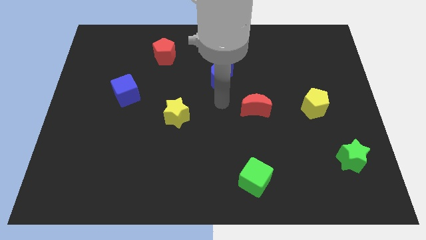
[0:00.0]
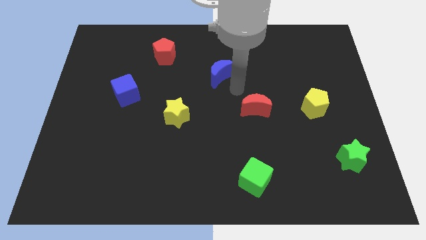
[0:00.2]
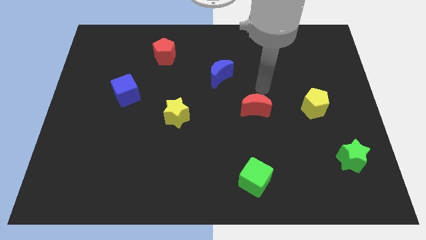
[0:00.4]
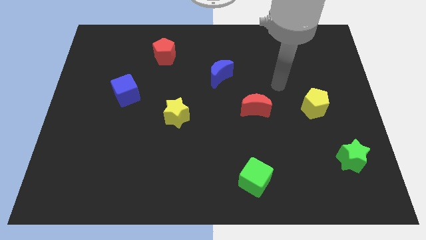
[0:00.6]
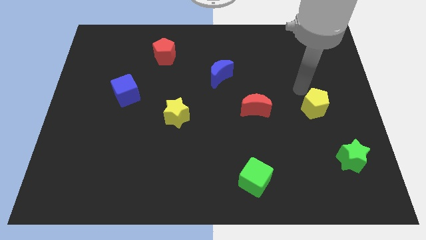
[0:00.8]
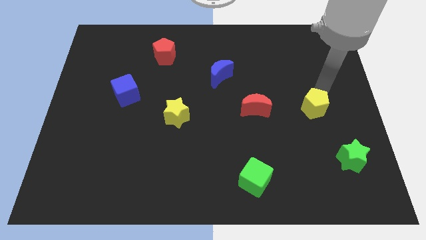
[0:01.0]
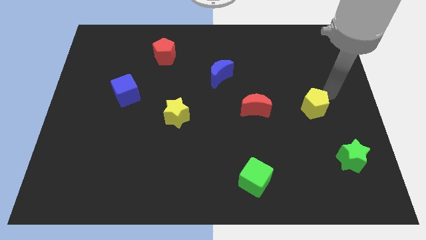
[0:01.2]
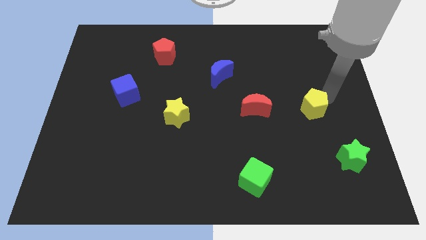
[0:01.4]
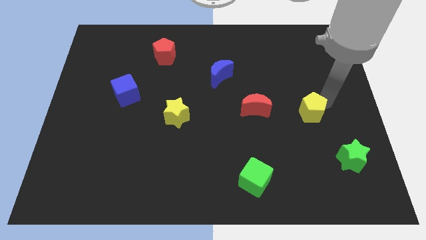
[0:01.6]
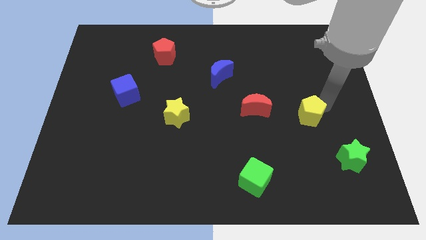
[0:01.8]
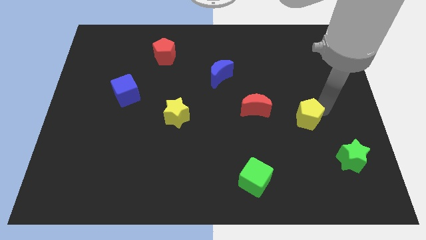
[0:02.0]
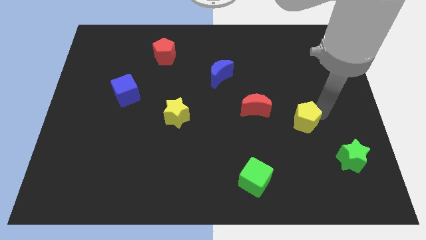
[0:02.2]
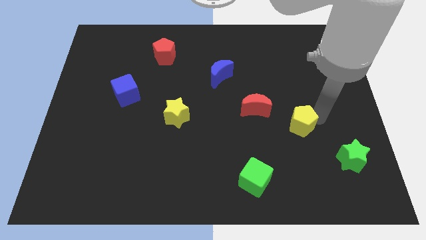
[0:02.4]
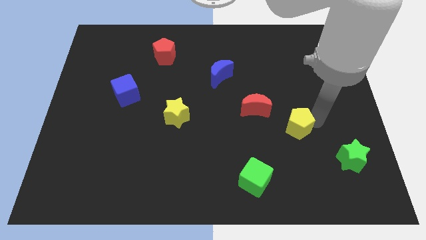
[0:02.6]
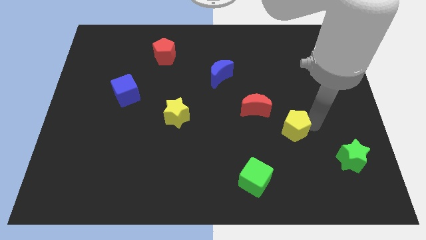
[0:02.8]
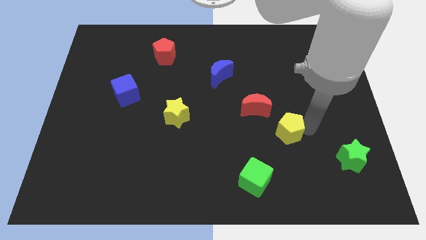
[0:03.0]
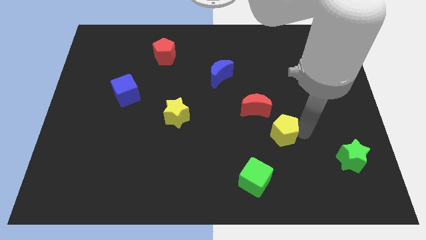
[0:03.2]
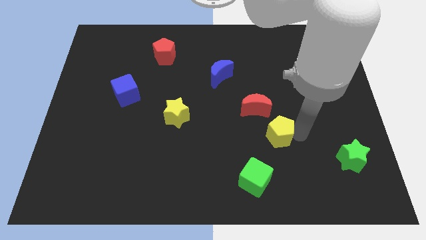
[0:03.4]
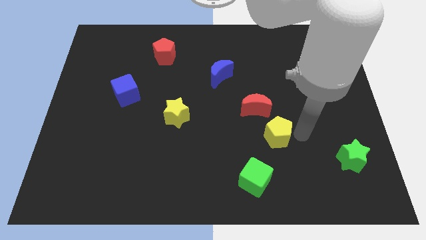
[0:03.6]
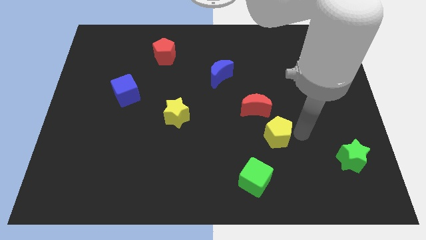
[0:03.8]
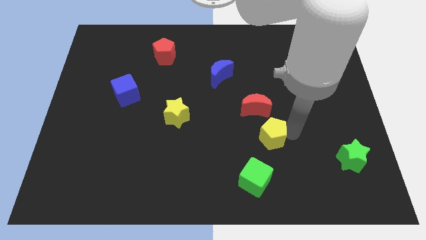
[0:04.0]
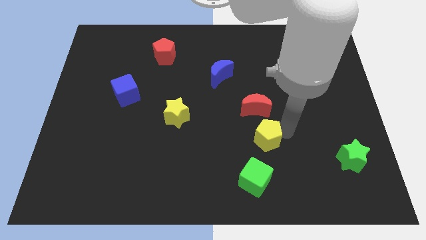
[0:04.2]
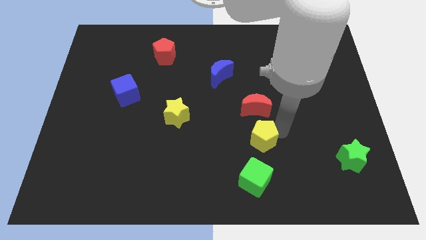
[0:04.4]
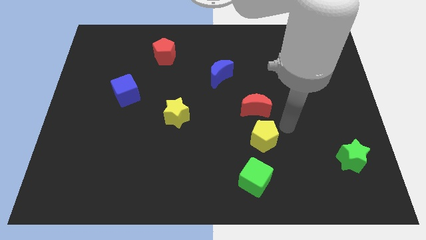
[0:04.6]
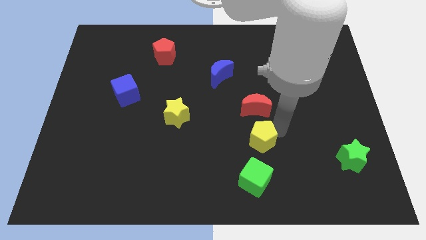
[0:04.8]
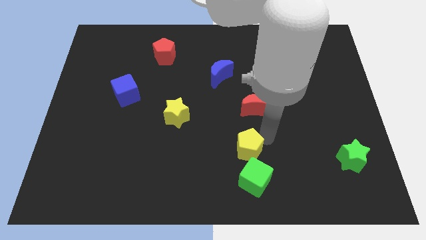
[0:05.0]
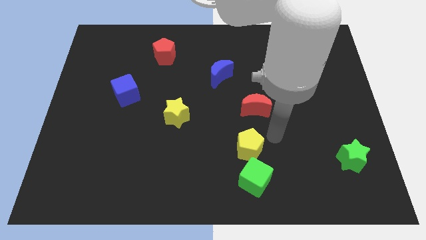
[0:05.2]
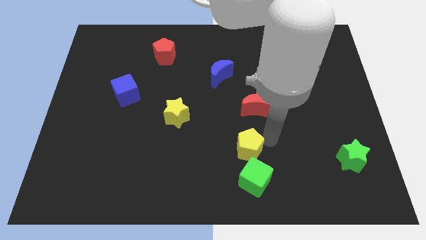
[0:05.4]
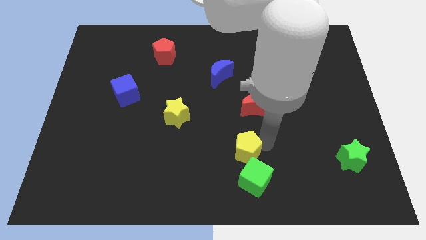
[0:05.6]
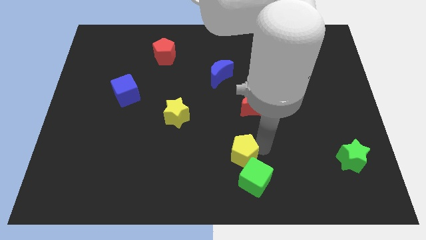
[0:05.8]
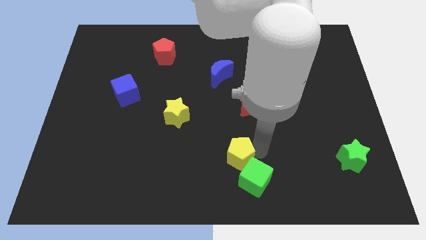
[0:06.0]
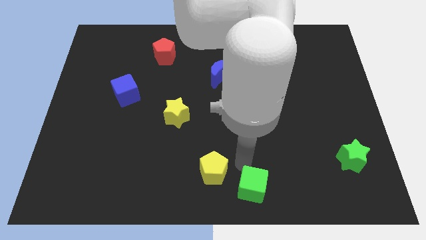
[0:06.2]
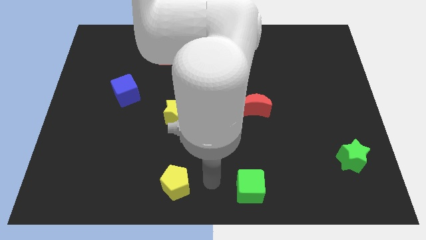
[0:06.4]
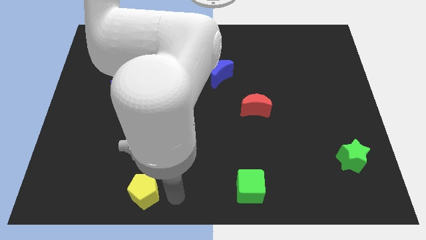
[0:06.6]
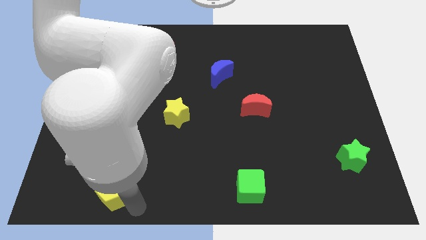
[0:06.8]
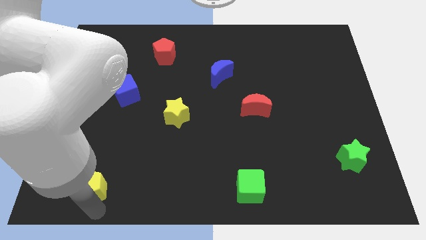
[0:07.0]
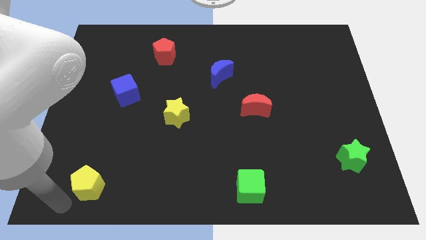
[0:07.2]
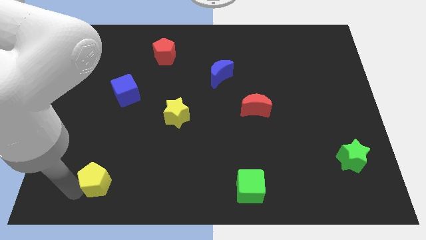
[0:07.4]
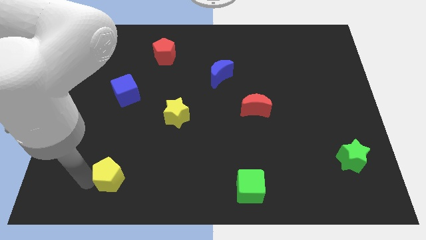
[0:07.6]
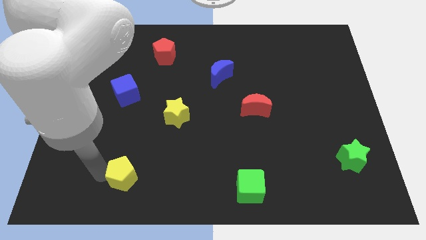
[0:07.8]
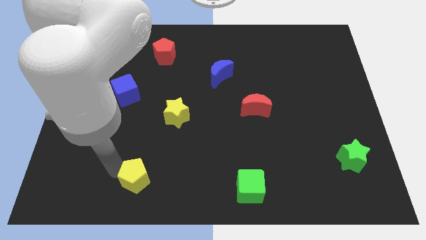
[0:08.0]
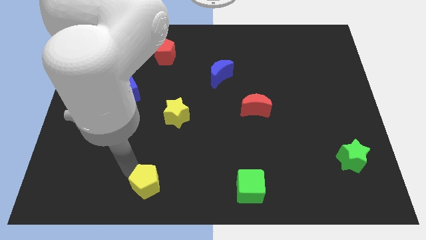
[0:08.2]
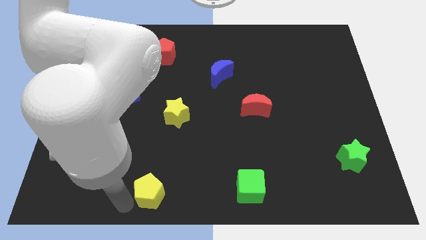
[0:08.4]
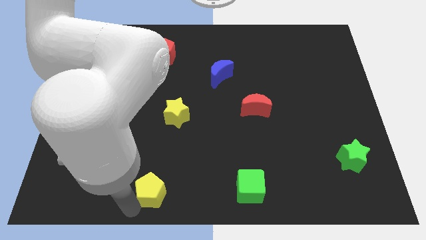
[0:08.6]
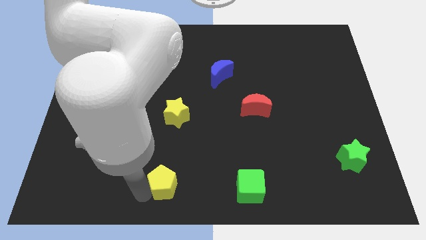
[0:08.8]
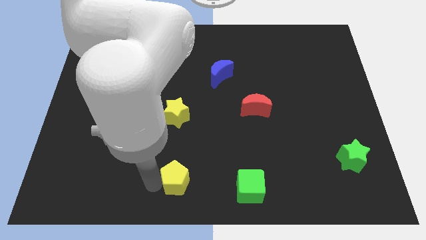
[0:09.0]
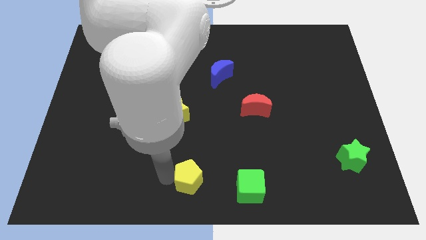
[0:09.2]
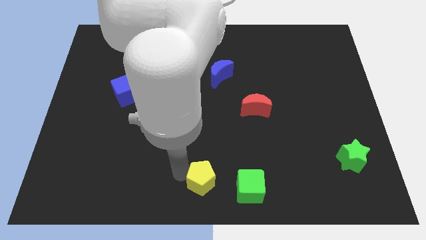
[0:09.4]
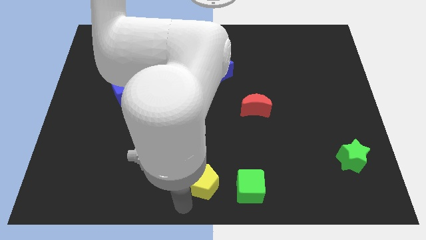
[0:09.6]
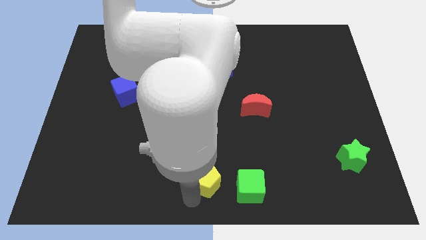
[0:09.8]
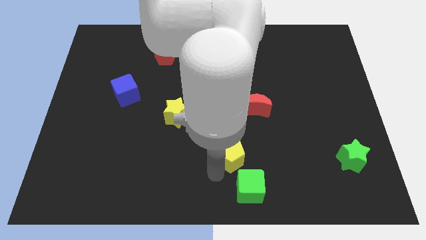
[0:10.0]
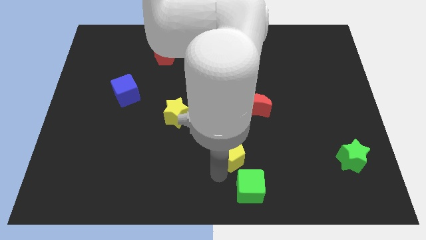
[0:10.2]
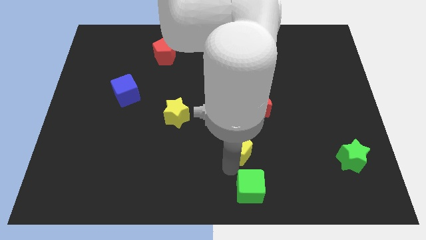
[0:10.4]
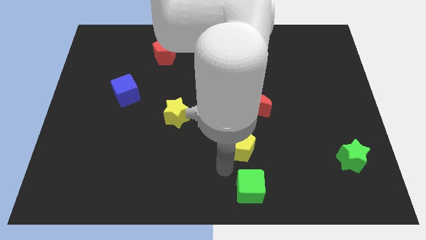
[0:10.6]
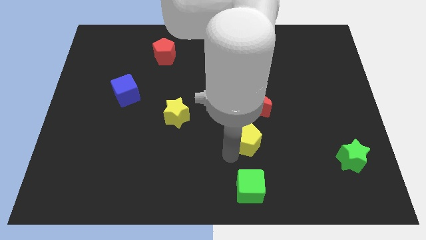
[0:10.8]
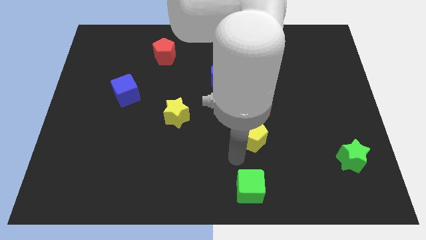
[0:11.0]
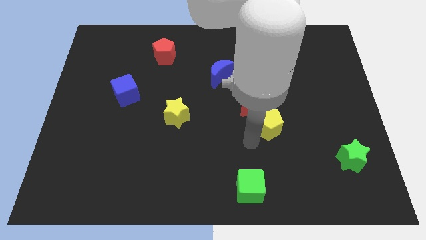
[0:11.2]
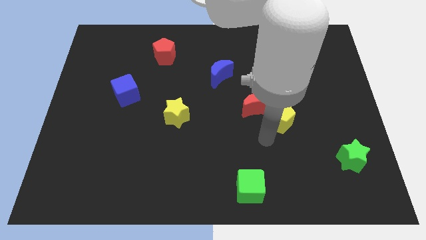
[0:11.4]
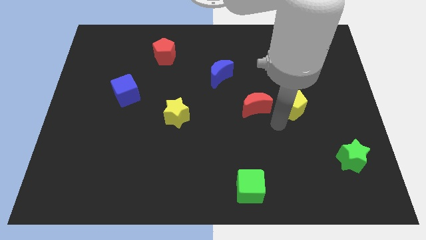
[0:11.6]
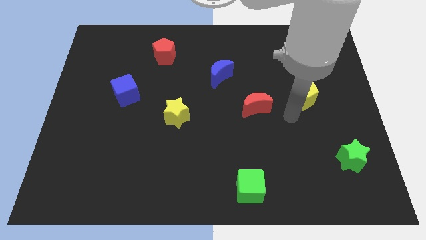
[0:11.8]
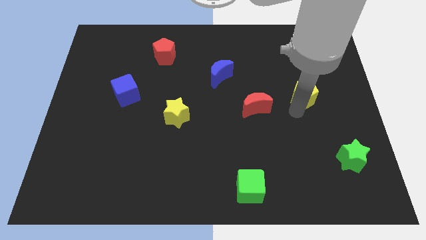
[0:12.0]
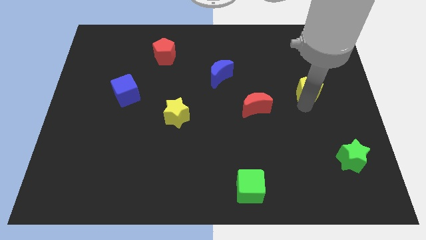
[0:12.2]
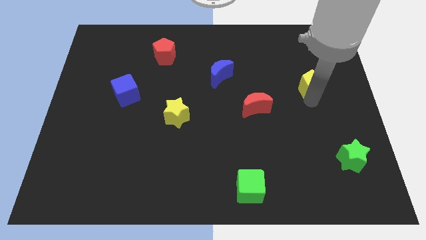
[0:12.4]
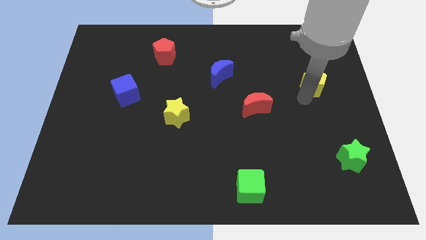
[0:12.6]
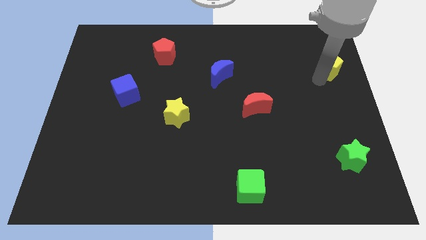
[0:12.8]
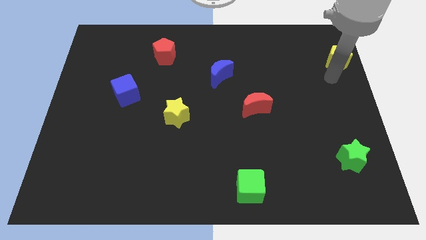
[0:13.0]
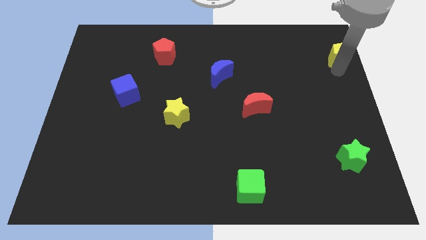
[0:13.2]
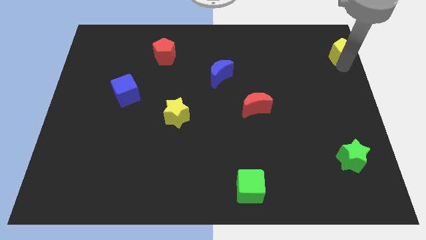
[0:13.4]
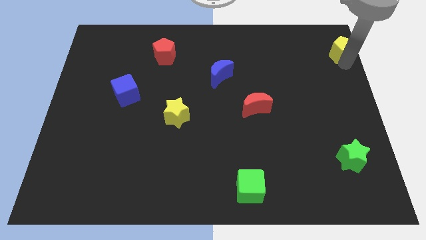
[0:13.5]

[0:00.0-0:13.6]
slide the yellow pentagon to the top right
